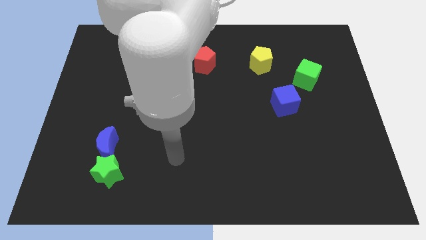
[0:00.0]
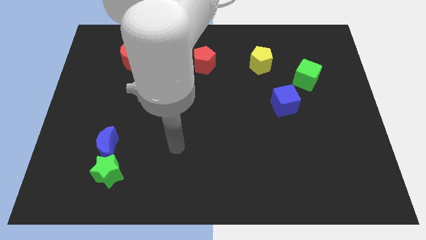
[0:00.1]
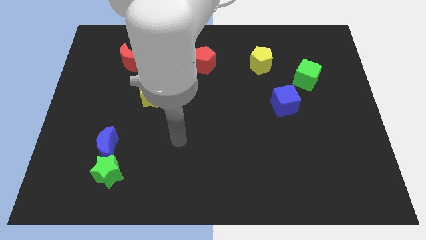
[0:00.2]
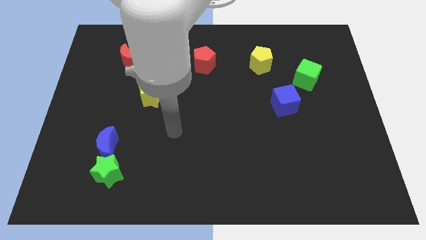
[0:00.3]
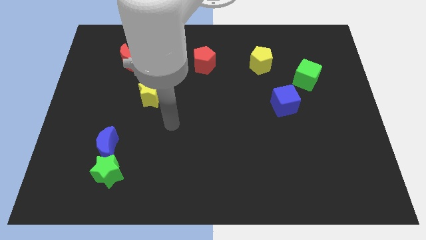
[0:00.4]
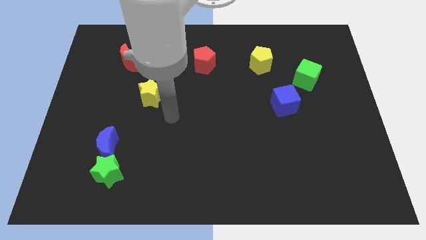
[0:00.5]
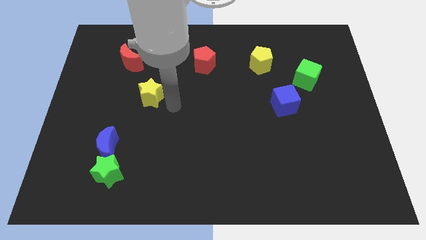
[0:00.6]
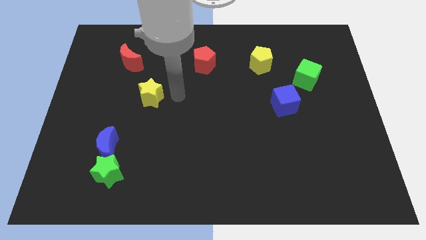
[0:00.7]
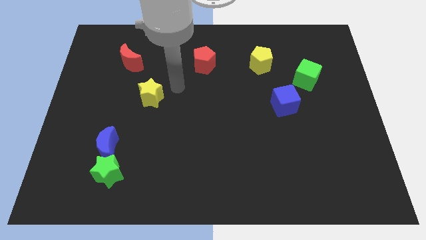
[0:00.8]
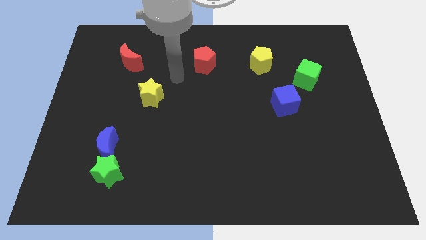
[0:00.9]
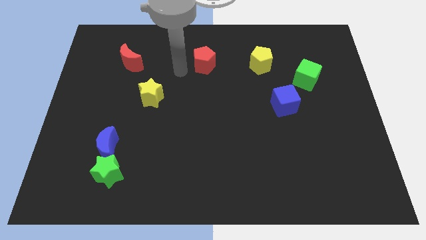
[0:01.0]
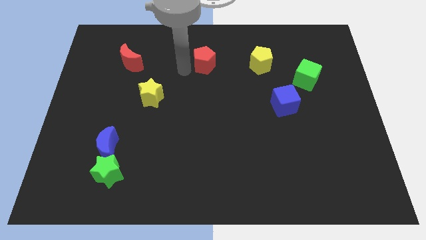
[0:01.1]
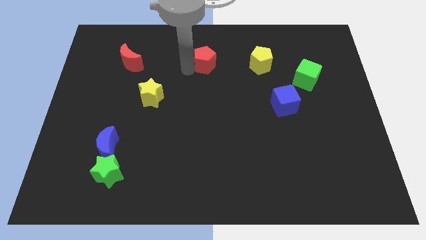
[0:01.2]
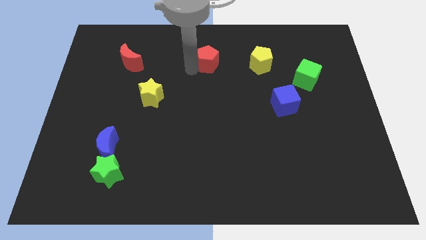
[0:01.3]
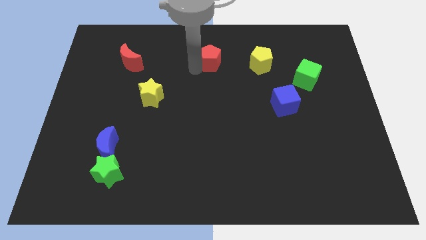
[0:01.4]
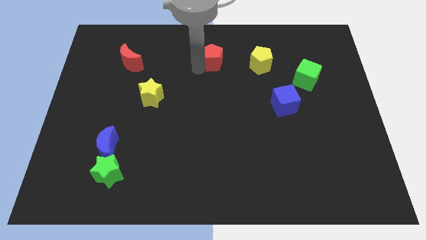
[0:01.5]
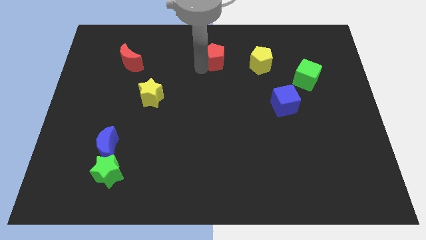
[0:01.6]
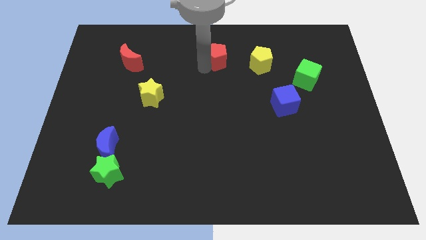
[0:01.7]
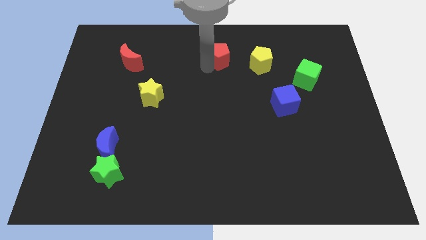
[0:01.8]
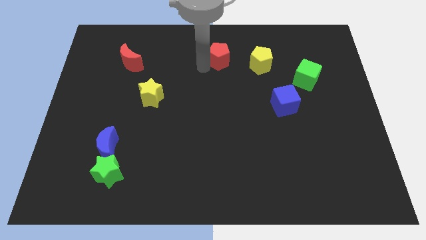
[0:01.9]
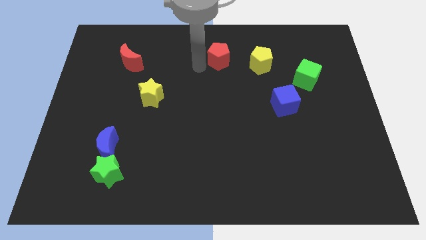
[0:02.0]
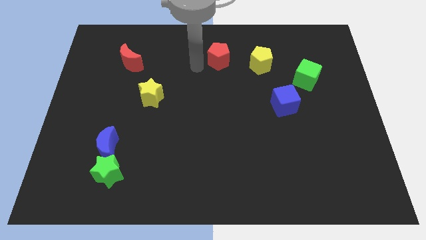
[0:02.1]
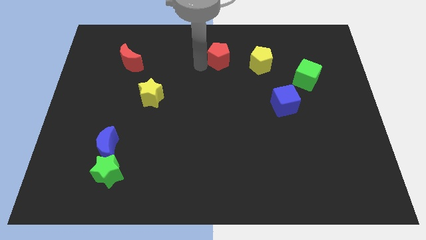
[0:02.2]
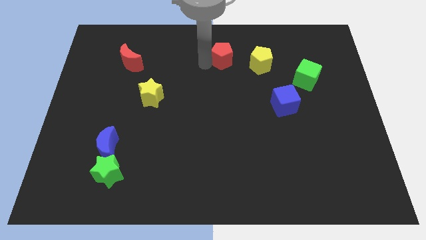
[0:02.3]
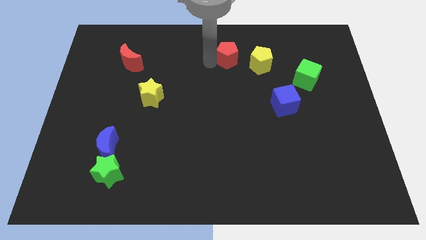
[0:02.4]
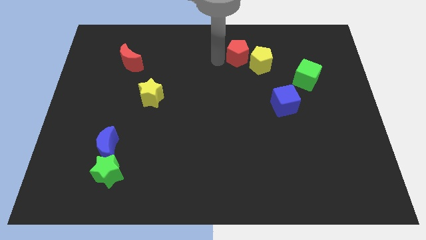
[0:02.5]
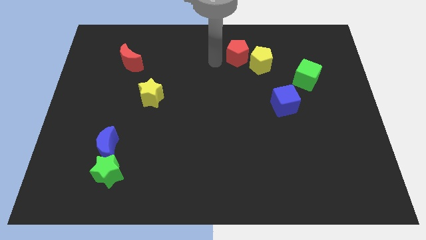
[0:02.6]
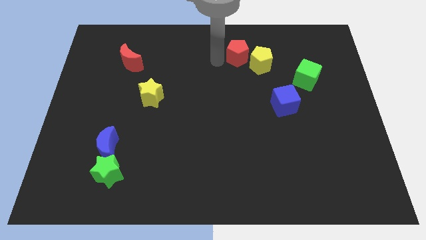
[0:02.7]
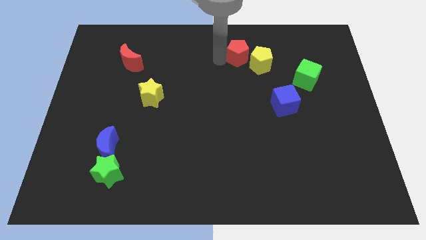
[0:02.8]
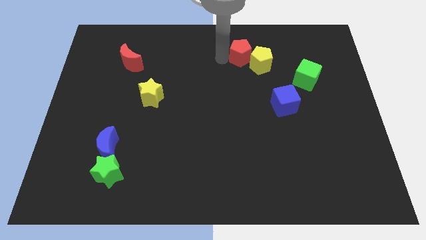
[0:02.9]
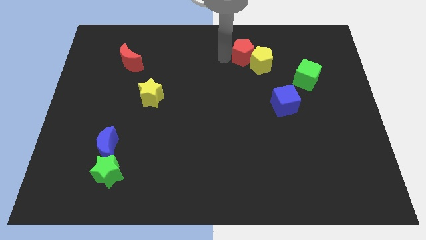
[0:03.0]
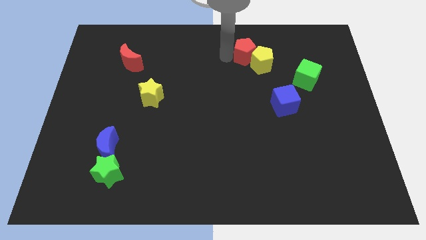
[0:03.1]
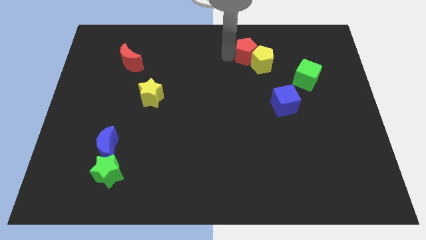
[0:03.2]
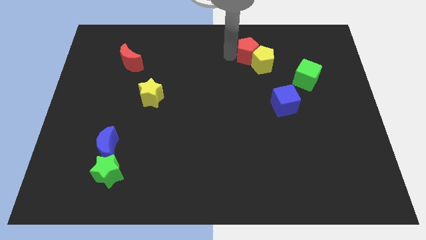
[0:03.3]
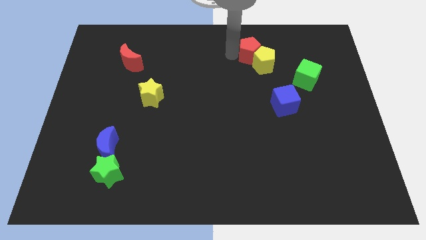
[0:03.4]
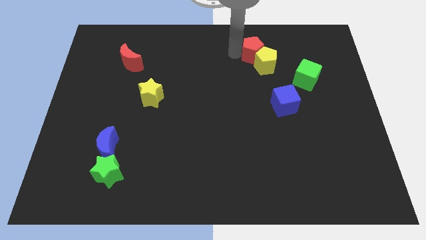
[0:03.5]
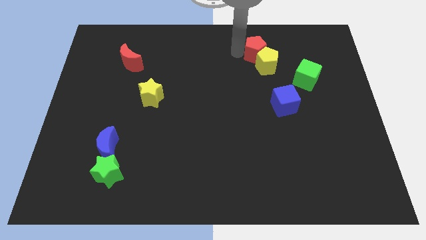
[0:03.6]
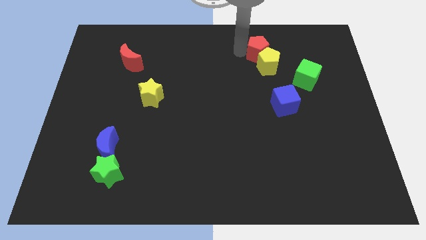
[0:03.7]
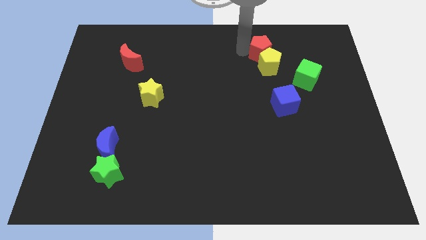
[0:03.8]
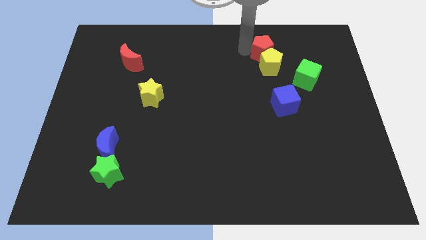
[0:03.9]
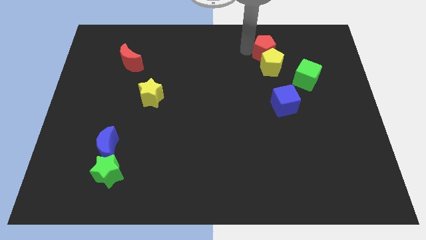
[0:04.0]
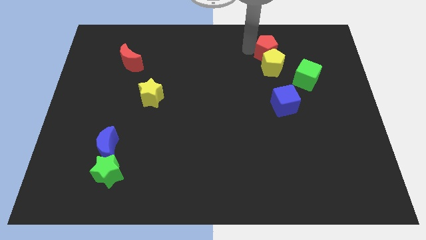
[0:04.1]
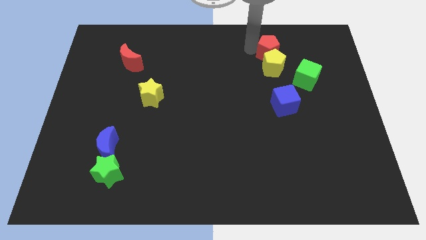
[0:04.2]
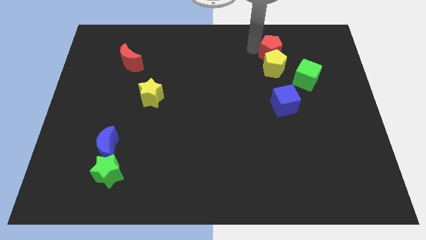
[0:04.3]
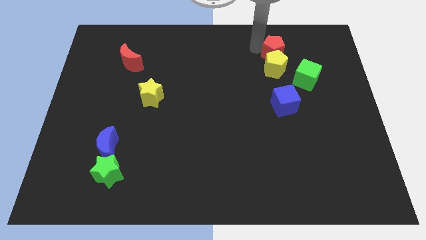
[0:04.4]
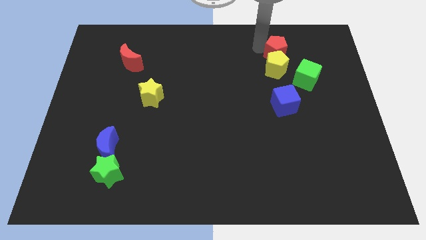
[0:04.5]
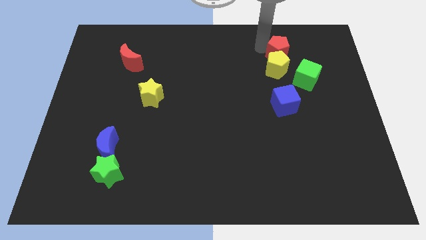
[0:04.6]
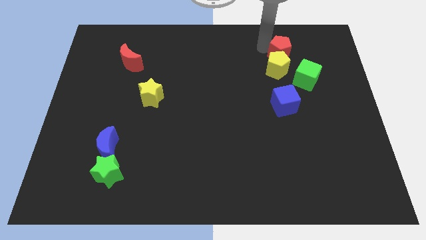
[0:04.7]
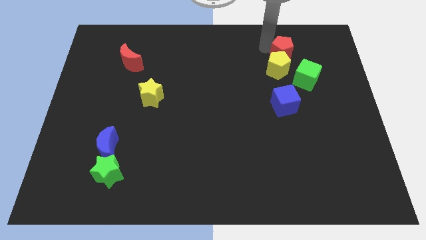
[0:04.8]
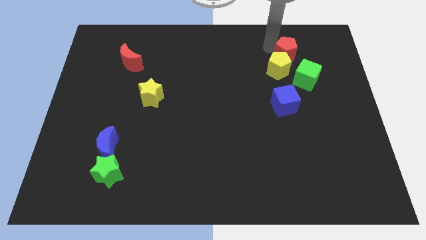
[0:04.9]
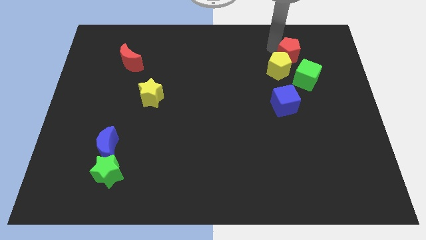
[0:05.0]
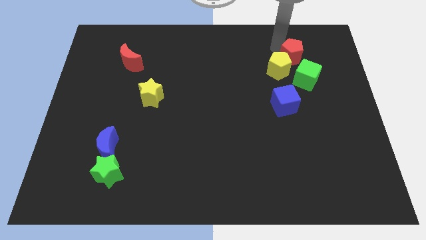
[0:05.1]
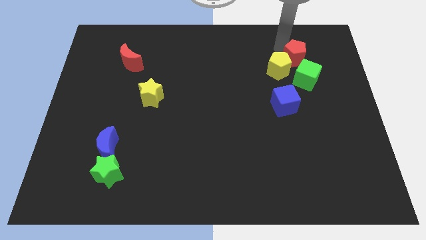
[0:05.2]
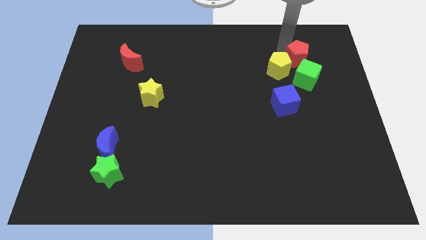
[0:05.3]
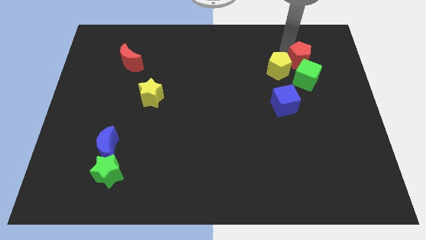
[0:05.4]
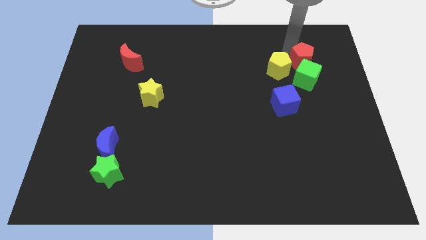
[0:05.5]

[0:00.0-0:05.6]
put the red pentagon to the top right of the green cube

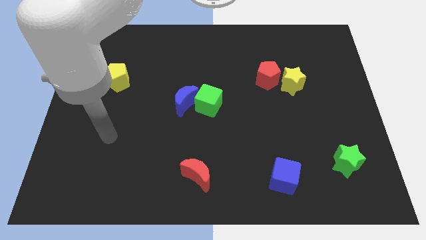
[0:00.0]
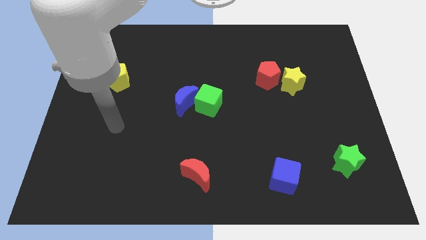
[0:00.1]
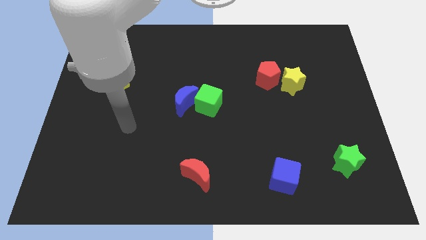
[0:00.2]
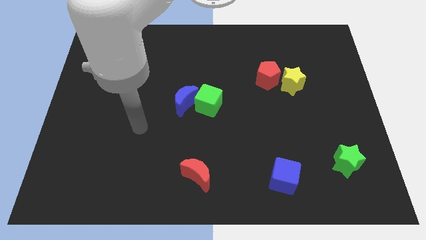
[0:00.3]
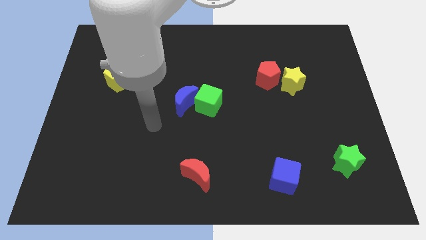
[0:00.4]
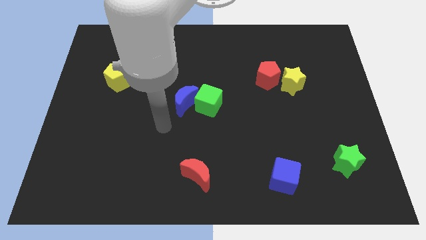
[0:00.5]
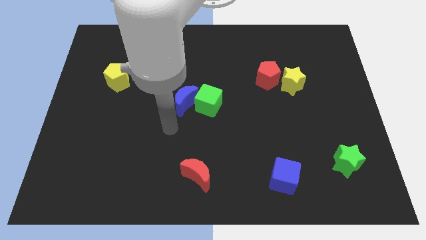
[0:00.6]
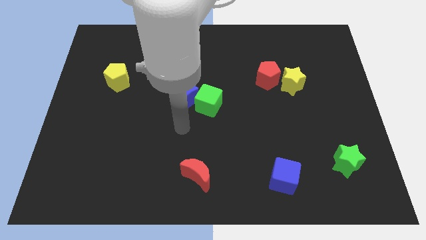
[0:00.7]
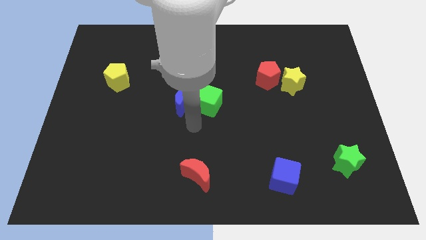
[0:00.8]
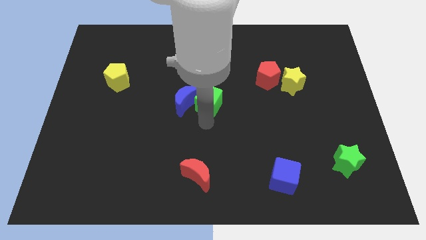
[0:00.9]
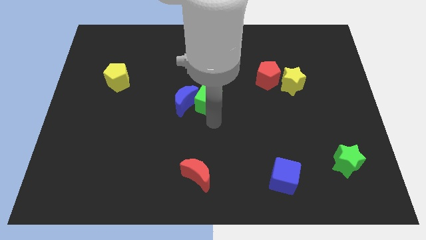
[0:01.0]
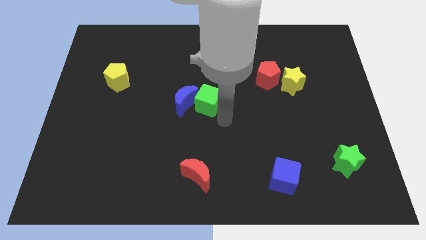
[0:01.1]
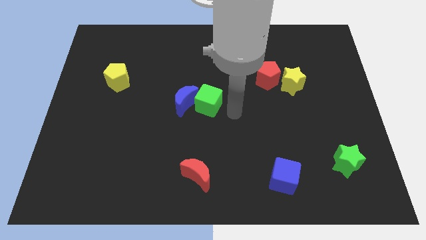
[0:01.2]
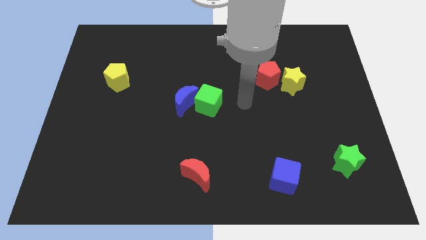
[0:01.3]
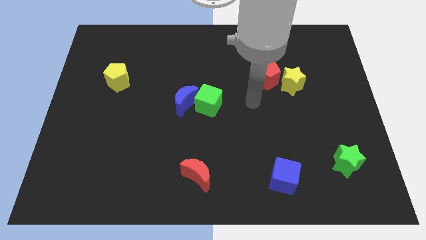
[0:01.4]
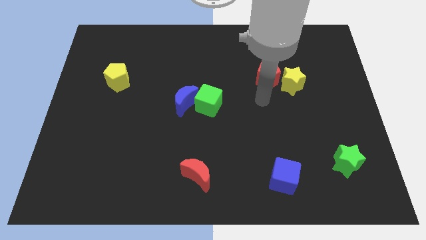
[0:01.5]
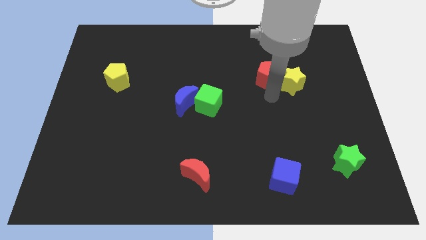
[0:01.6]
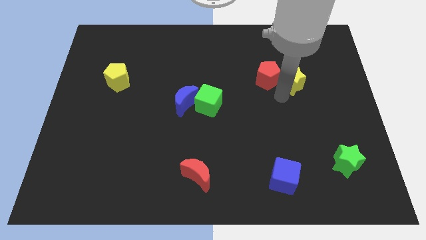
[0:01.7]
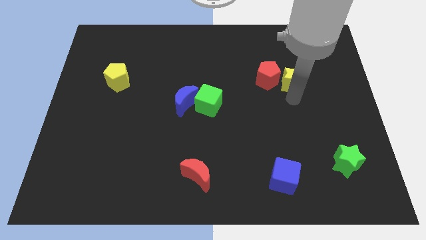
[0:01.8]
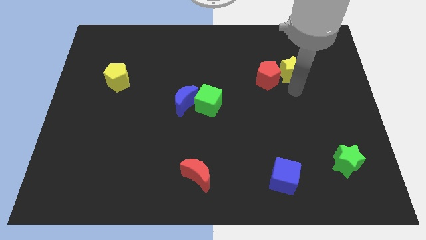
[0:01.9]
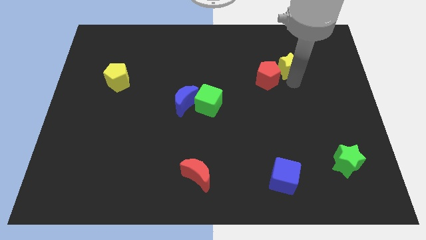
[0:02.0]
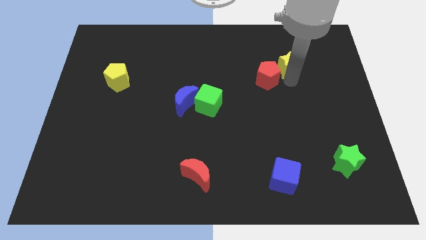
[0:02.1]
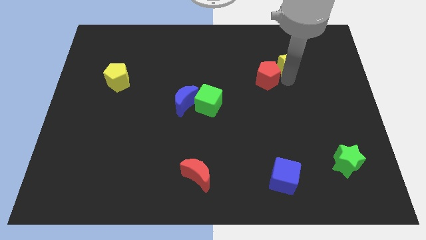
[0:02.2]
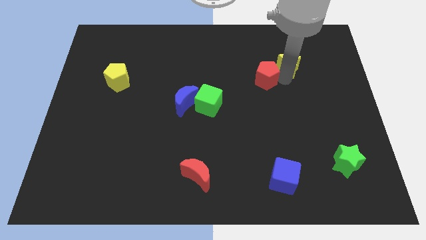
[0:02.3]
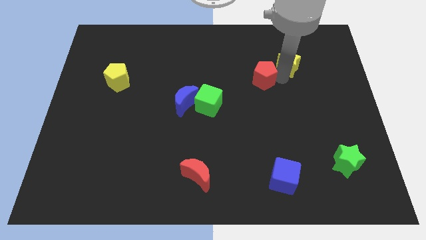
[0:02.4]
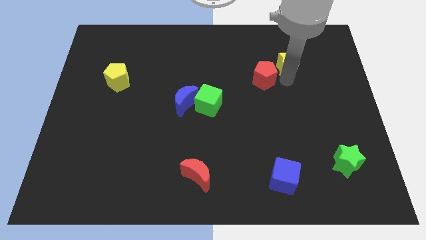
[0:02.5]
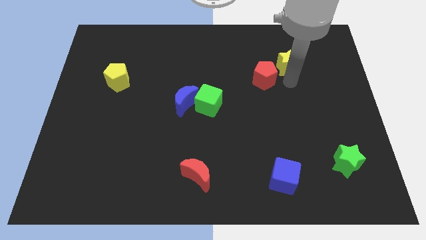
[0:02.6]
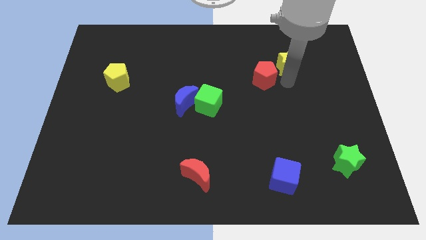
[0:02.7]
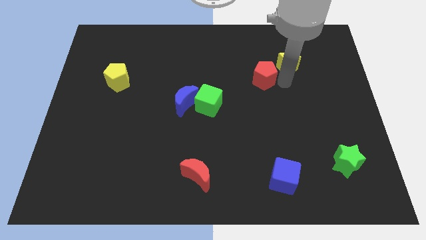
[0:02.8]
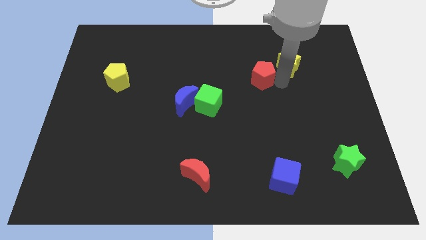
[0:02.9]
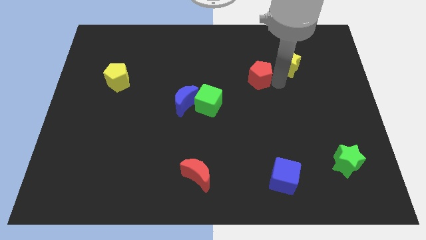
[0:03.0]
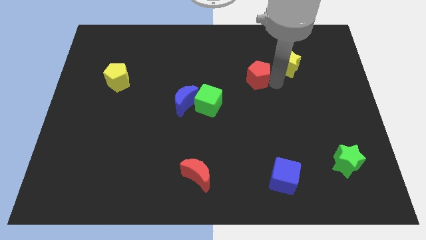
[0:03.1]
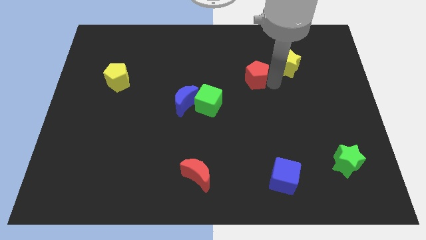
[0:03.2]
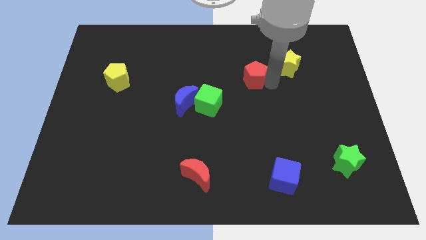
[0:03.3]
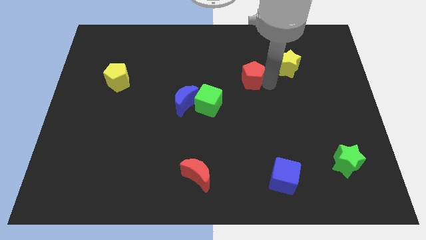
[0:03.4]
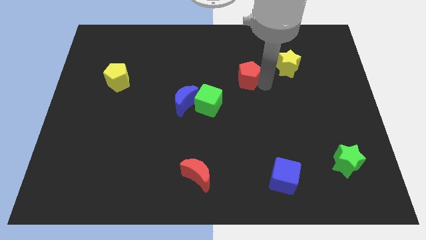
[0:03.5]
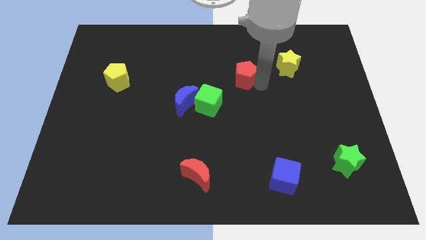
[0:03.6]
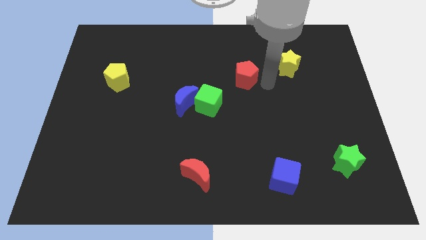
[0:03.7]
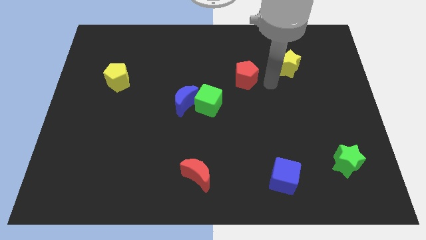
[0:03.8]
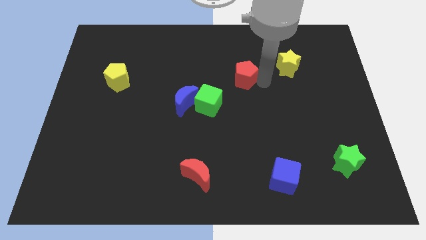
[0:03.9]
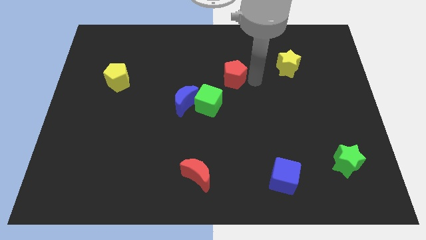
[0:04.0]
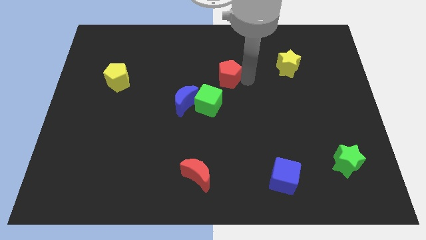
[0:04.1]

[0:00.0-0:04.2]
put the red pentagon above the green cube
